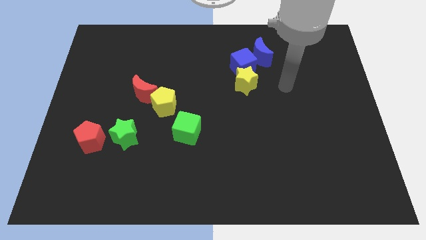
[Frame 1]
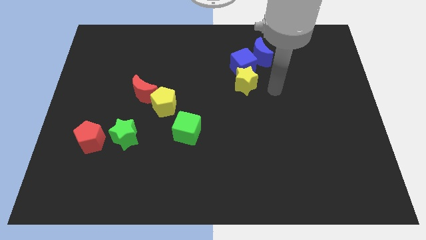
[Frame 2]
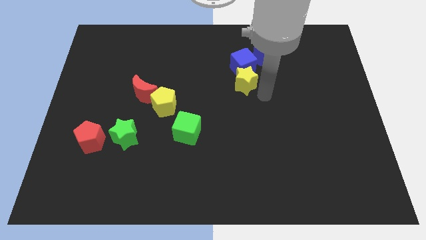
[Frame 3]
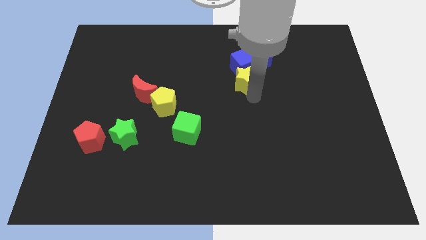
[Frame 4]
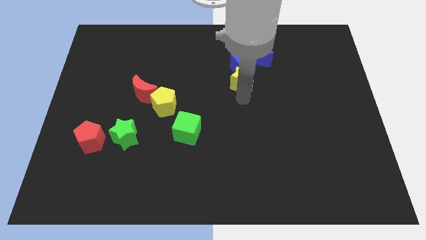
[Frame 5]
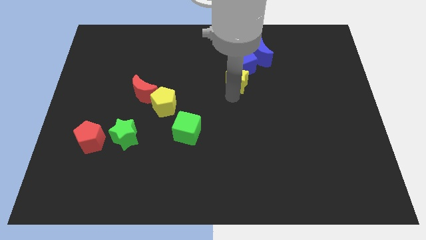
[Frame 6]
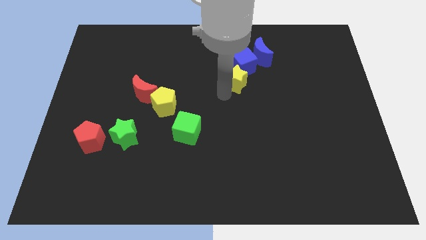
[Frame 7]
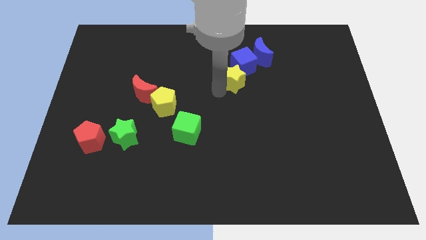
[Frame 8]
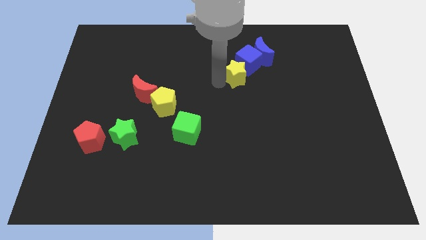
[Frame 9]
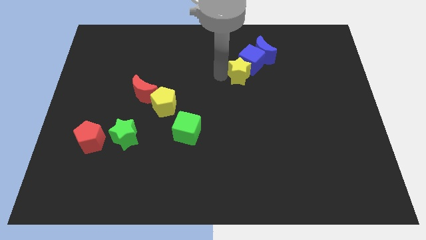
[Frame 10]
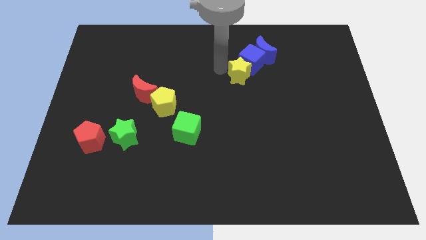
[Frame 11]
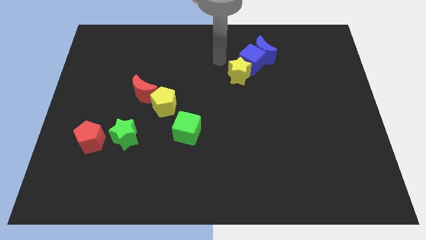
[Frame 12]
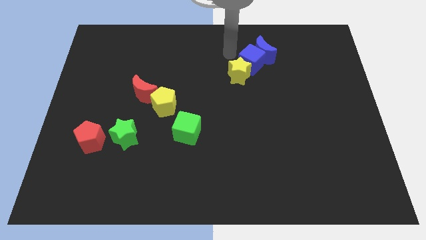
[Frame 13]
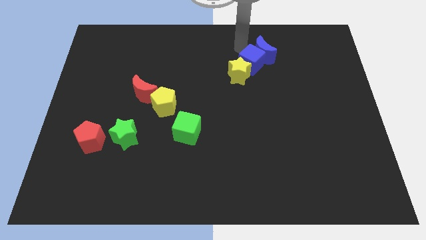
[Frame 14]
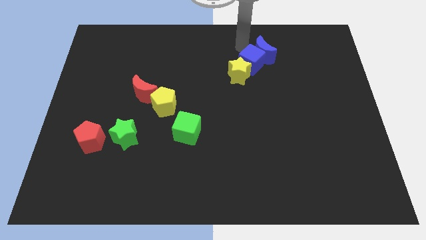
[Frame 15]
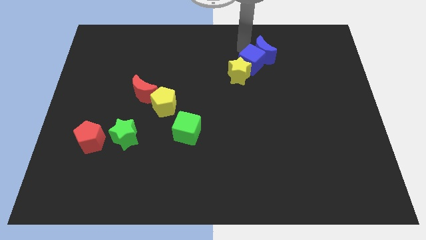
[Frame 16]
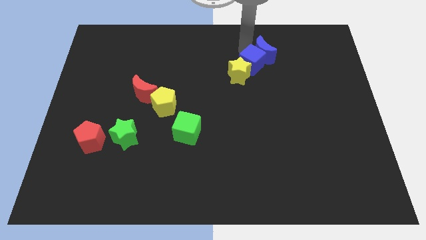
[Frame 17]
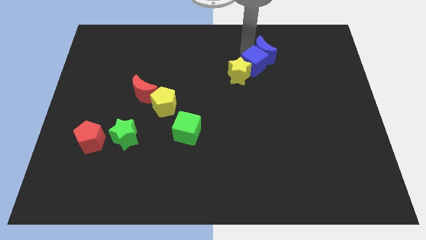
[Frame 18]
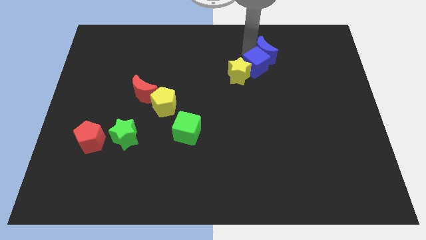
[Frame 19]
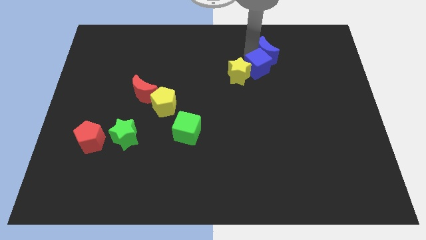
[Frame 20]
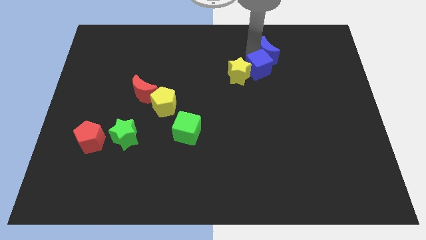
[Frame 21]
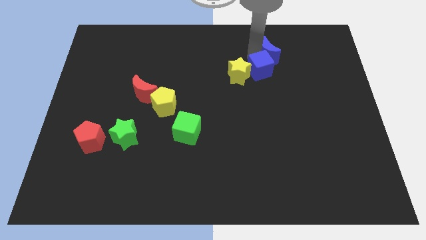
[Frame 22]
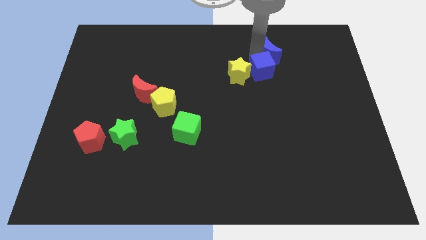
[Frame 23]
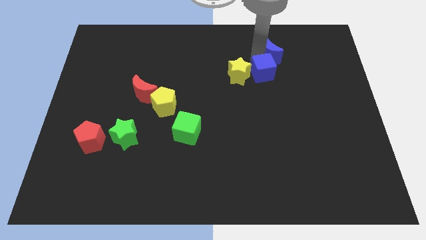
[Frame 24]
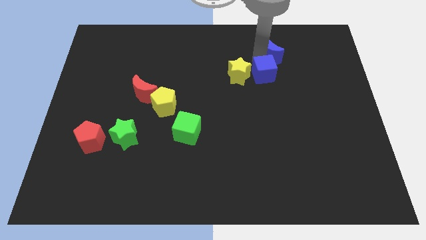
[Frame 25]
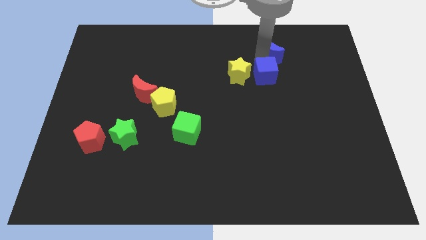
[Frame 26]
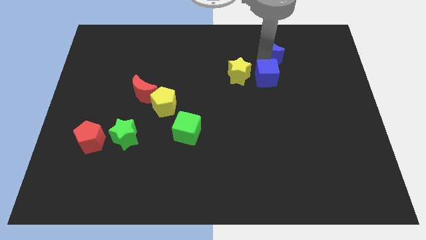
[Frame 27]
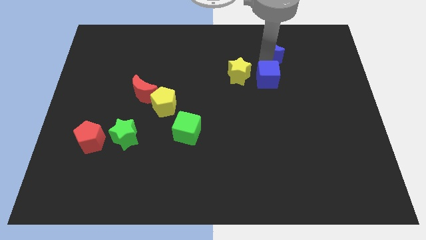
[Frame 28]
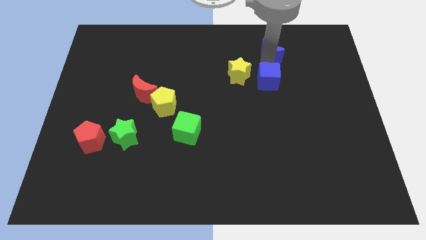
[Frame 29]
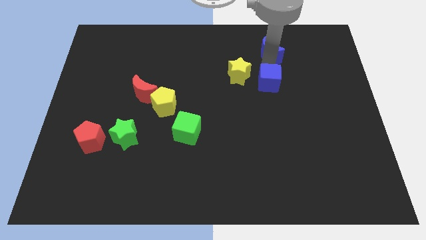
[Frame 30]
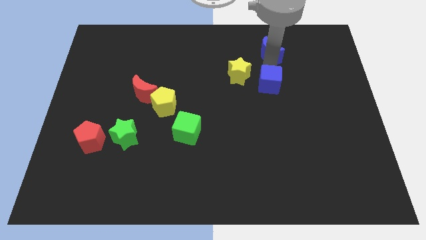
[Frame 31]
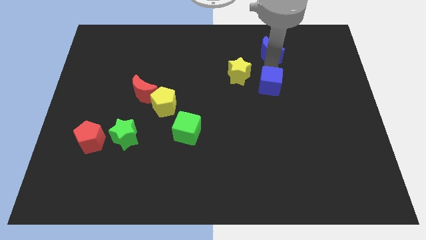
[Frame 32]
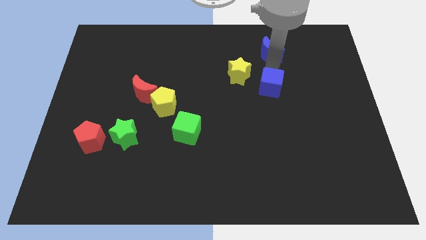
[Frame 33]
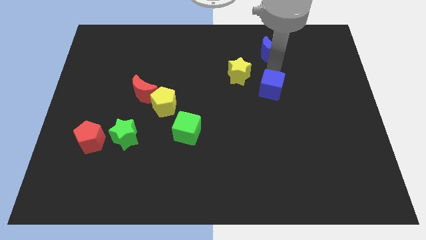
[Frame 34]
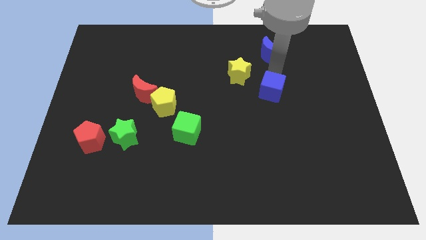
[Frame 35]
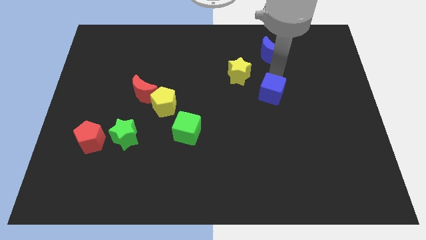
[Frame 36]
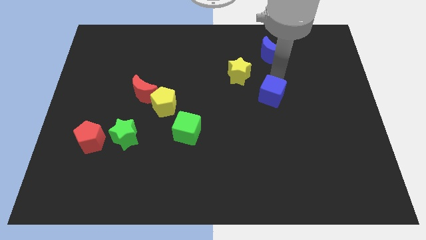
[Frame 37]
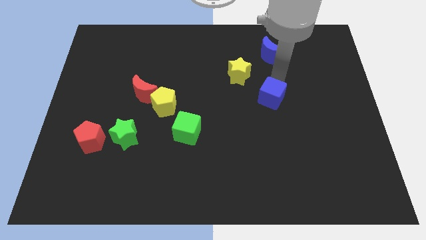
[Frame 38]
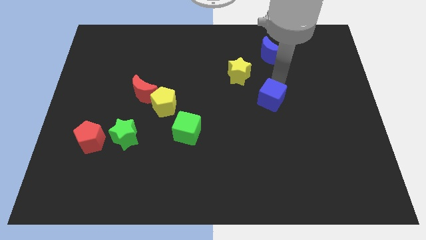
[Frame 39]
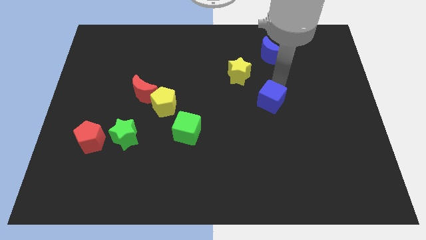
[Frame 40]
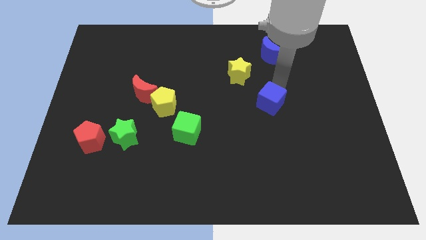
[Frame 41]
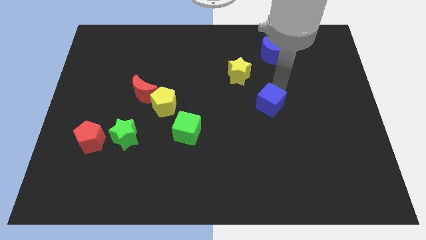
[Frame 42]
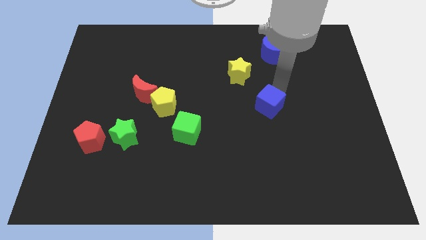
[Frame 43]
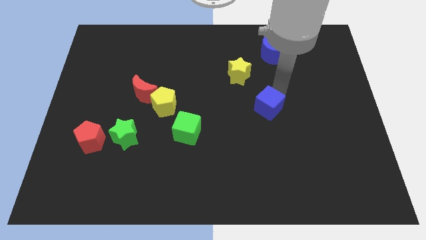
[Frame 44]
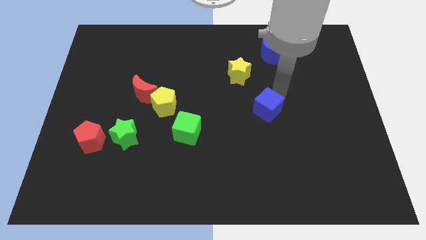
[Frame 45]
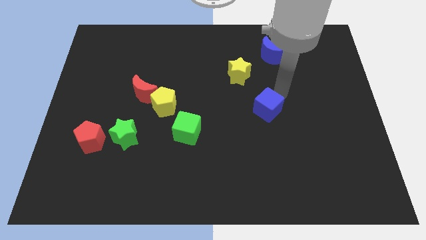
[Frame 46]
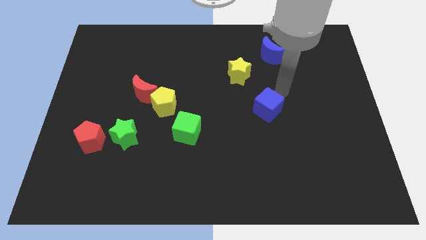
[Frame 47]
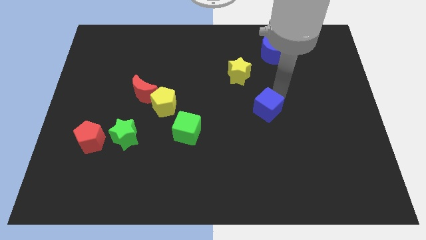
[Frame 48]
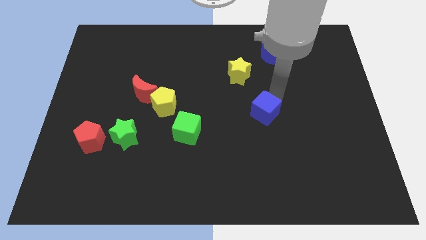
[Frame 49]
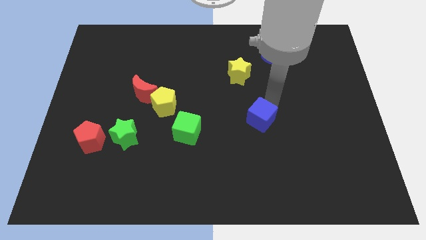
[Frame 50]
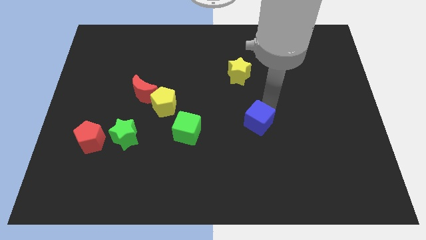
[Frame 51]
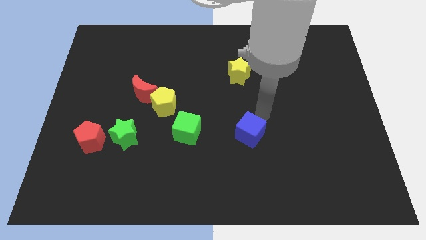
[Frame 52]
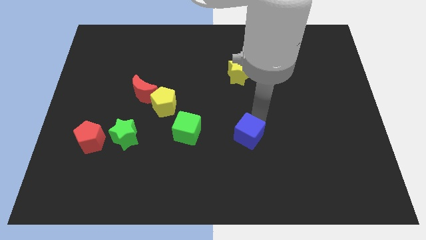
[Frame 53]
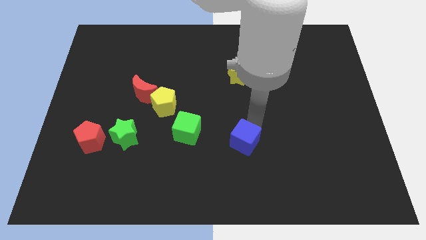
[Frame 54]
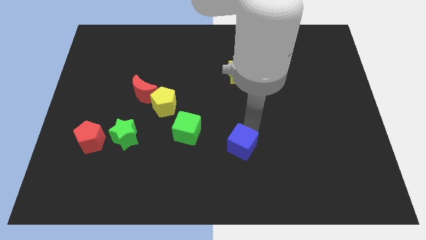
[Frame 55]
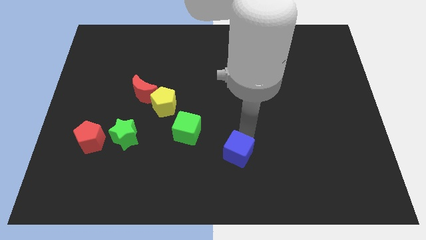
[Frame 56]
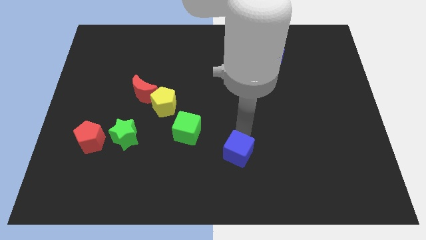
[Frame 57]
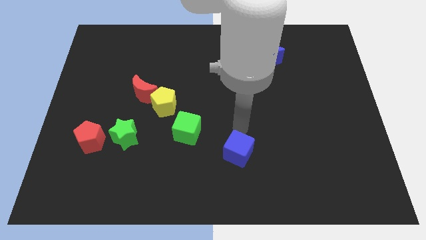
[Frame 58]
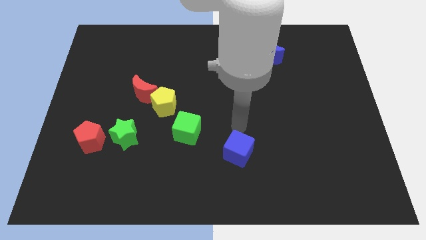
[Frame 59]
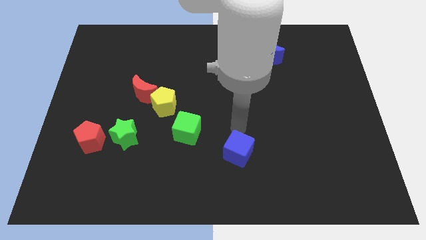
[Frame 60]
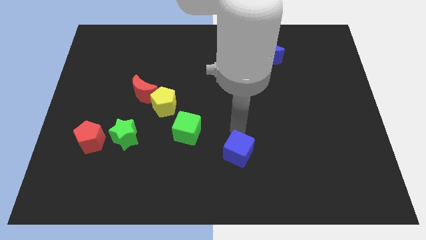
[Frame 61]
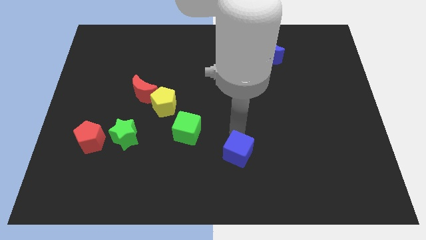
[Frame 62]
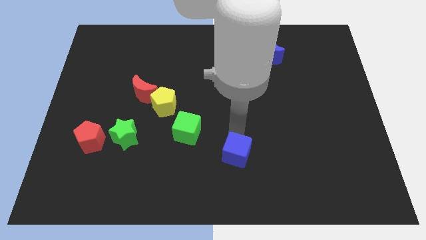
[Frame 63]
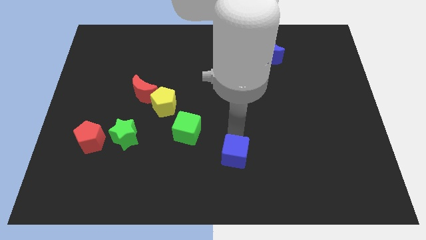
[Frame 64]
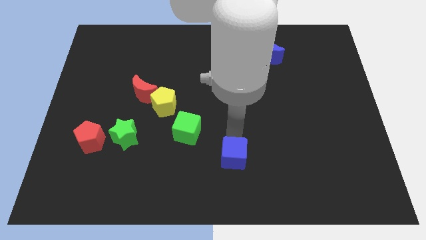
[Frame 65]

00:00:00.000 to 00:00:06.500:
slide the blue cube to the bottom side
